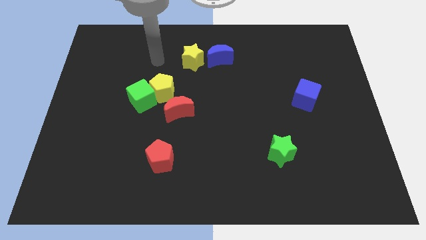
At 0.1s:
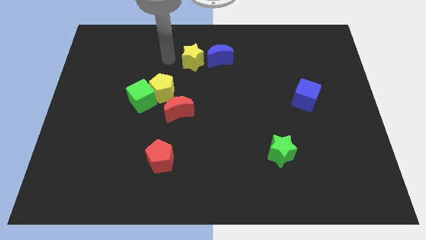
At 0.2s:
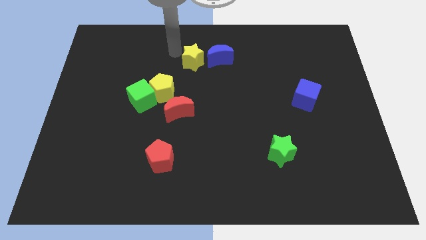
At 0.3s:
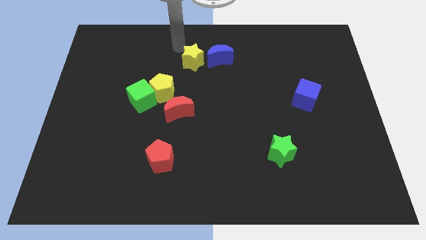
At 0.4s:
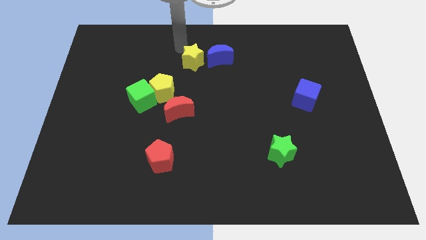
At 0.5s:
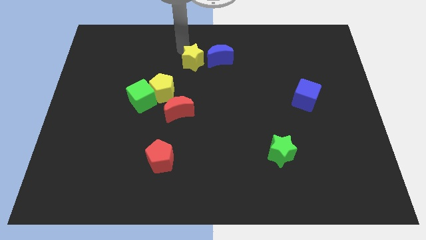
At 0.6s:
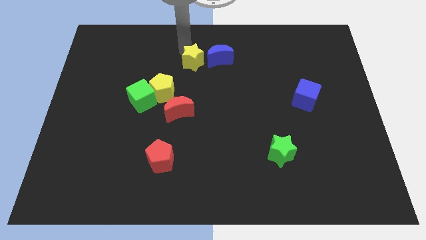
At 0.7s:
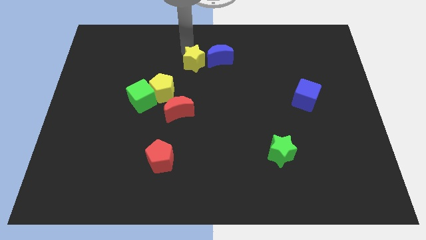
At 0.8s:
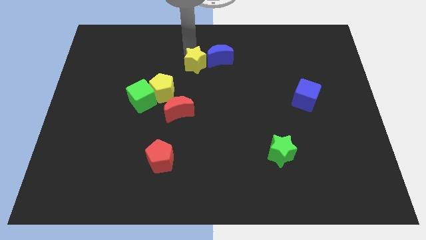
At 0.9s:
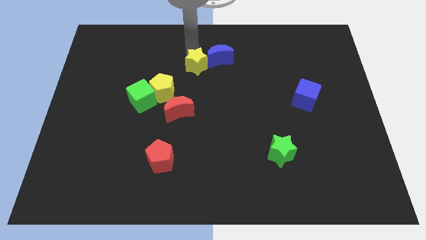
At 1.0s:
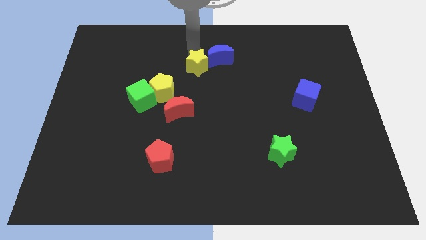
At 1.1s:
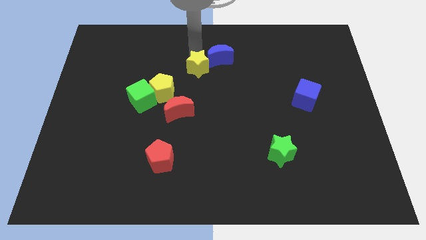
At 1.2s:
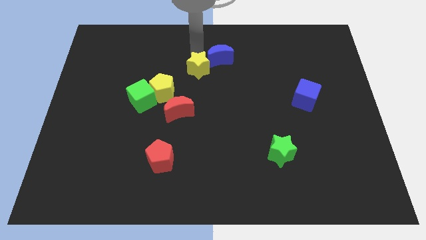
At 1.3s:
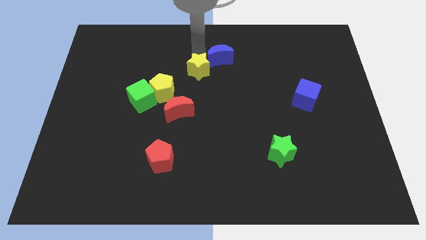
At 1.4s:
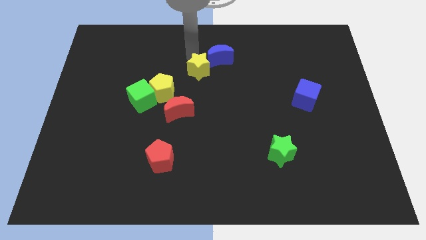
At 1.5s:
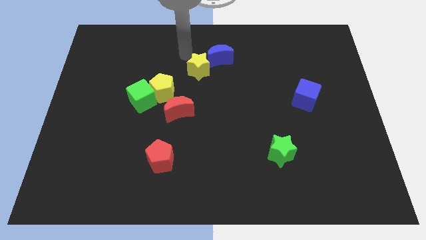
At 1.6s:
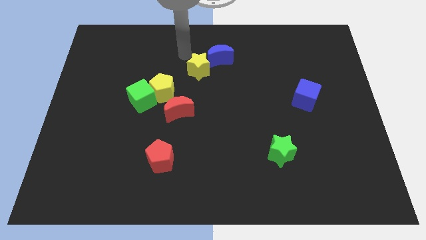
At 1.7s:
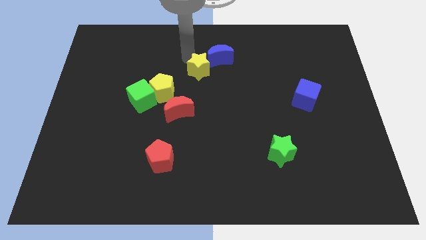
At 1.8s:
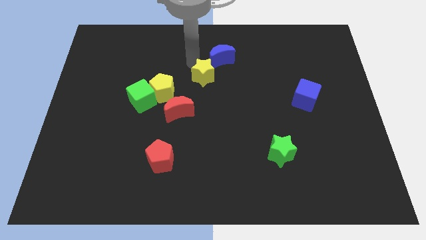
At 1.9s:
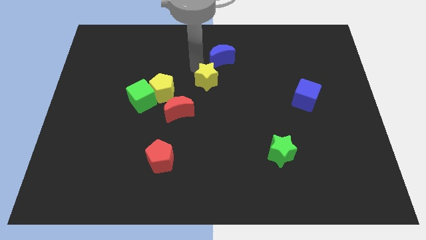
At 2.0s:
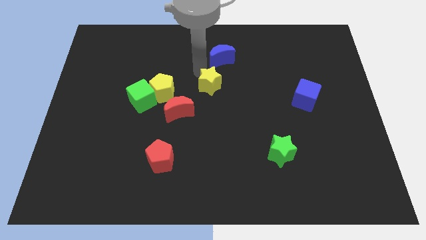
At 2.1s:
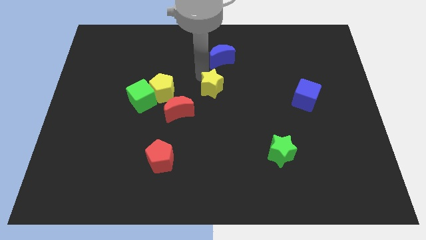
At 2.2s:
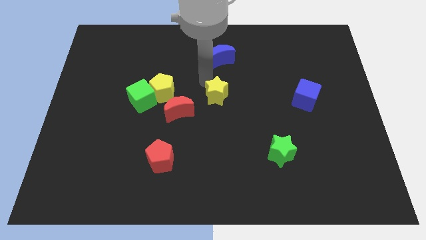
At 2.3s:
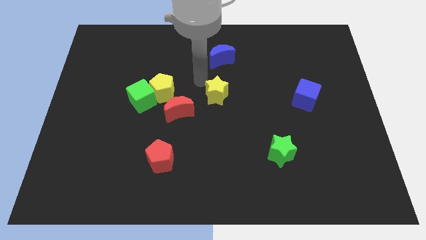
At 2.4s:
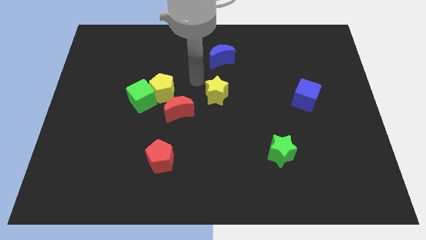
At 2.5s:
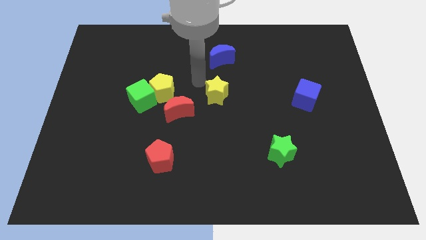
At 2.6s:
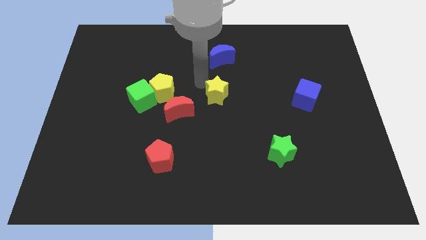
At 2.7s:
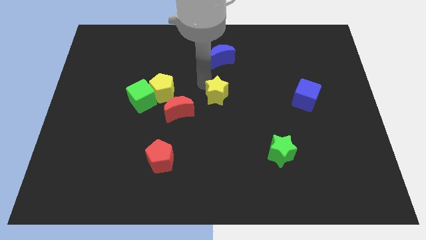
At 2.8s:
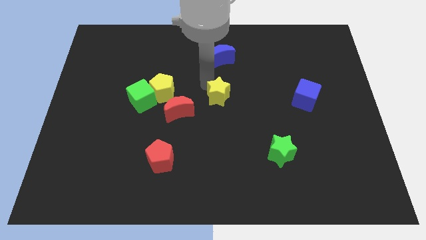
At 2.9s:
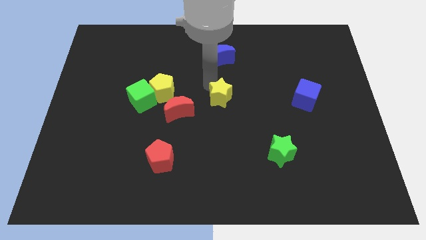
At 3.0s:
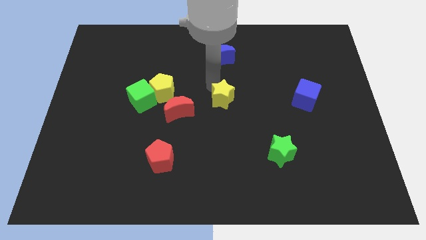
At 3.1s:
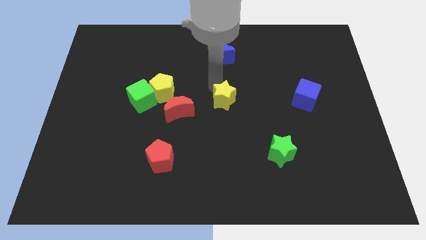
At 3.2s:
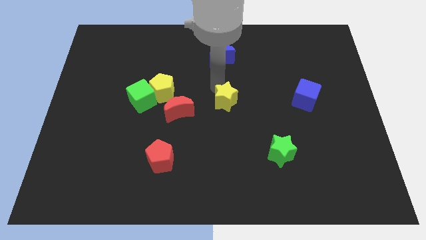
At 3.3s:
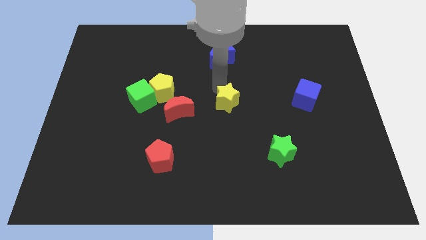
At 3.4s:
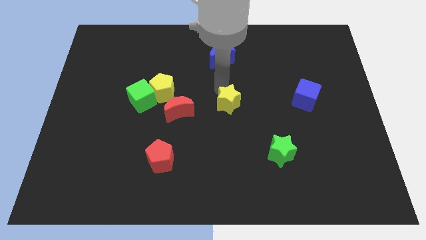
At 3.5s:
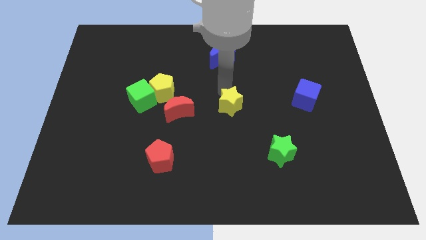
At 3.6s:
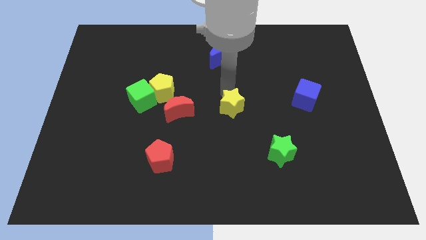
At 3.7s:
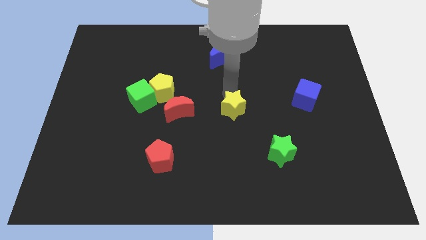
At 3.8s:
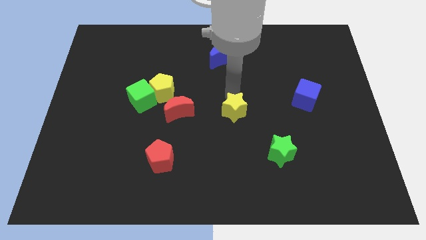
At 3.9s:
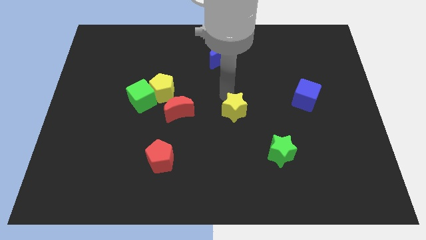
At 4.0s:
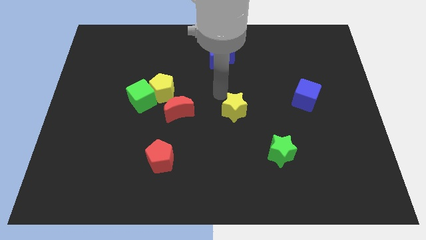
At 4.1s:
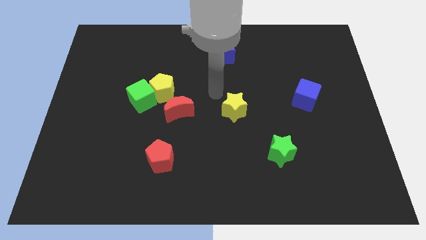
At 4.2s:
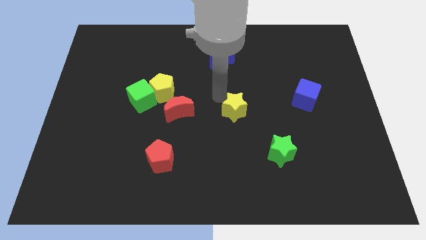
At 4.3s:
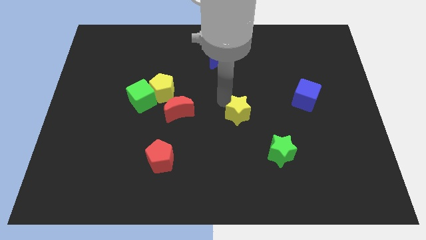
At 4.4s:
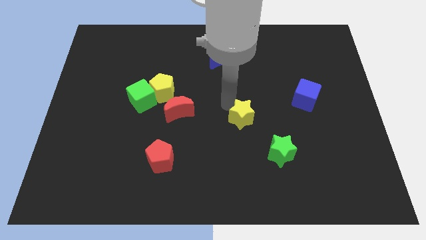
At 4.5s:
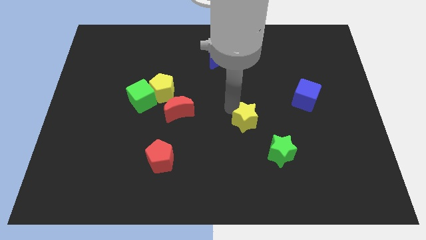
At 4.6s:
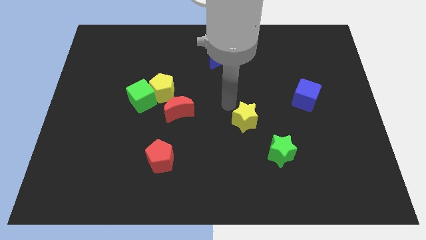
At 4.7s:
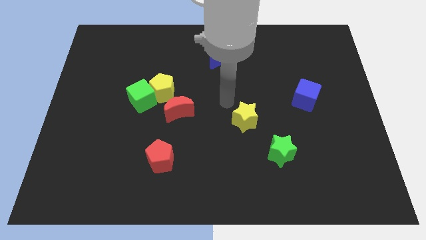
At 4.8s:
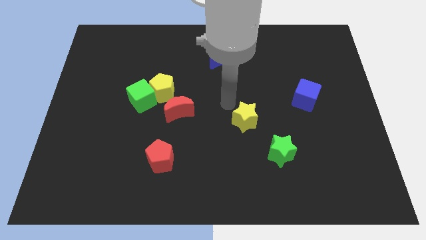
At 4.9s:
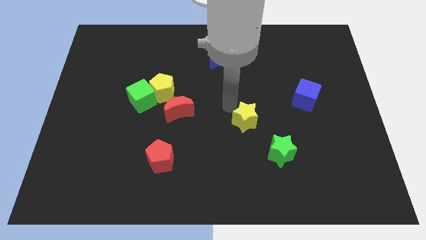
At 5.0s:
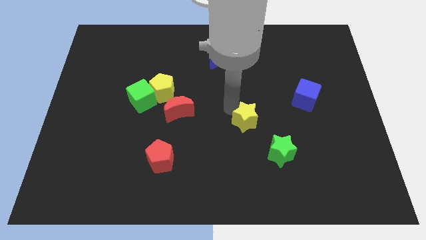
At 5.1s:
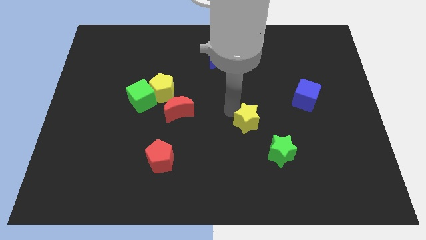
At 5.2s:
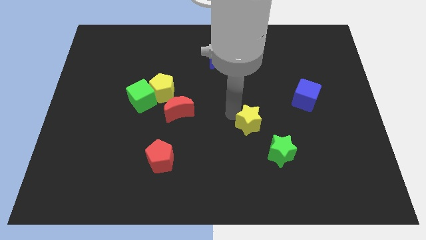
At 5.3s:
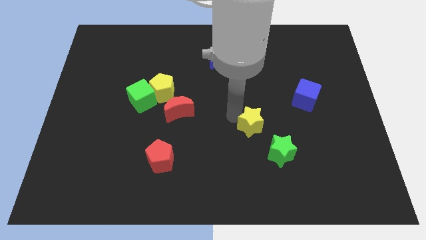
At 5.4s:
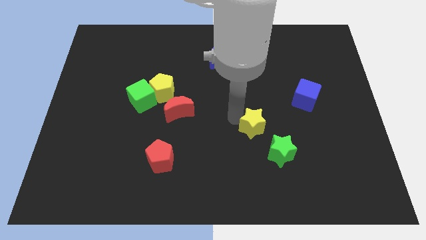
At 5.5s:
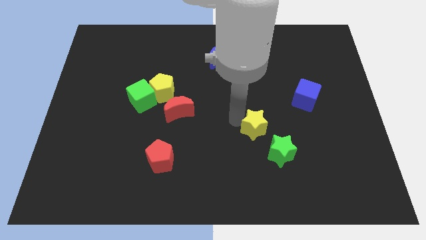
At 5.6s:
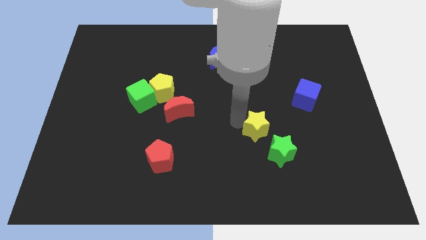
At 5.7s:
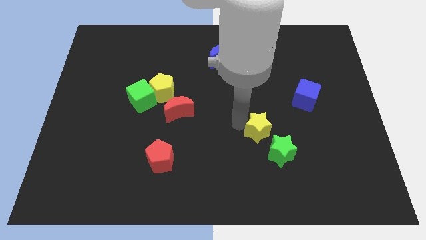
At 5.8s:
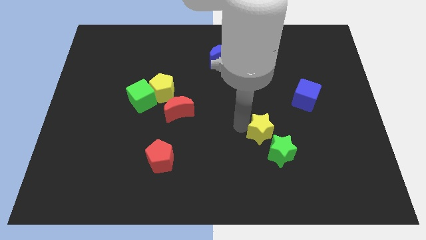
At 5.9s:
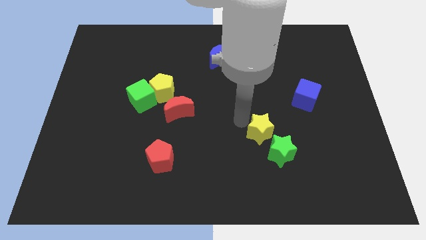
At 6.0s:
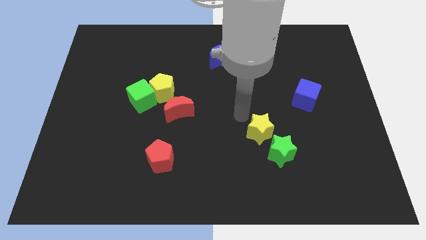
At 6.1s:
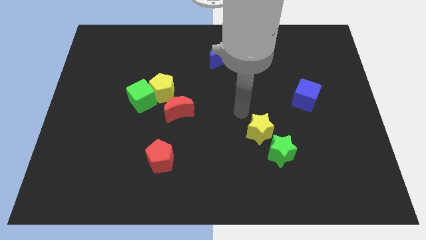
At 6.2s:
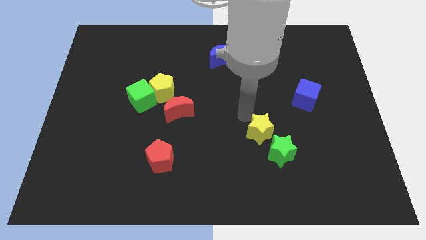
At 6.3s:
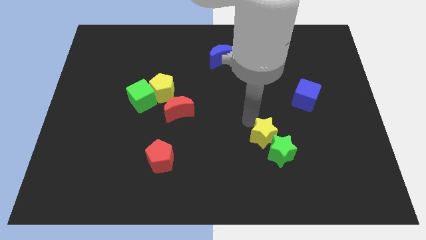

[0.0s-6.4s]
push the yellow star close to the green star
